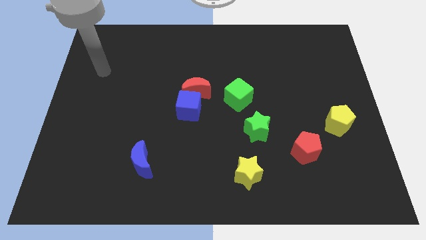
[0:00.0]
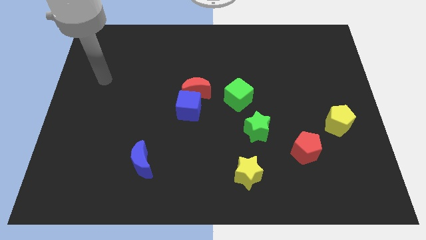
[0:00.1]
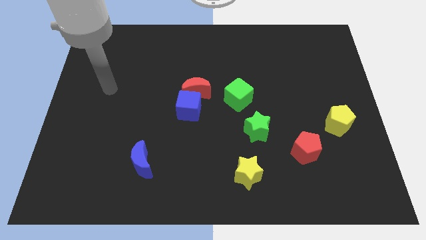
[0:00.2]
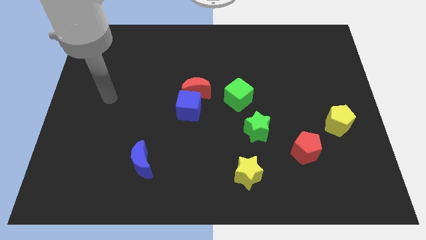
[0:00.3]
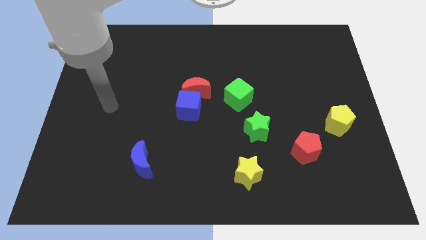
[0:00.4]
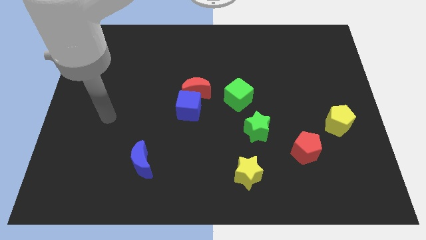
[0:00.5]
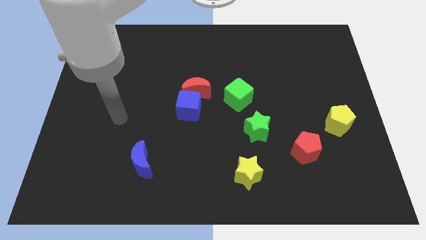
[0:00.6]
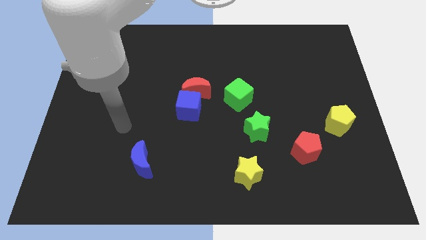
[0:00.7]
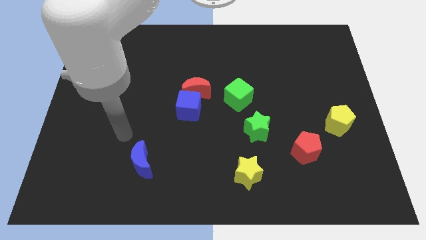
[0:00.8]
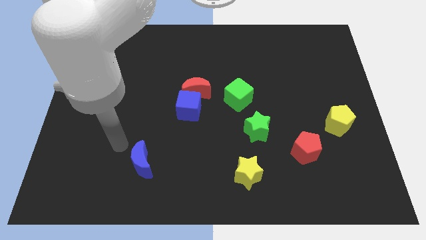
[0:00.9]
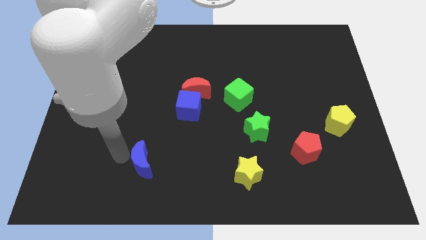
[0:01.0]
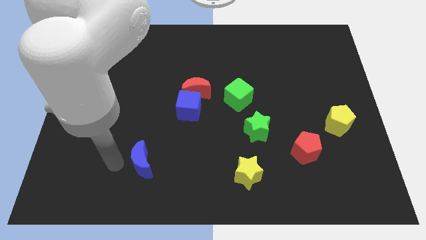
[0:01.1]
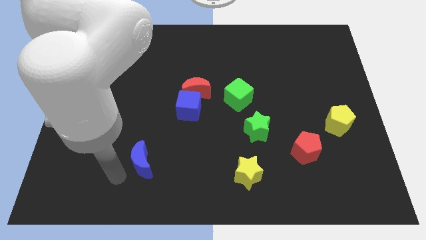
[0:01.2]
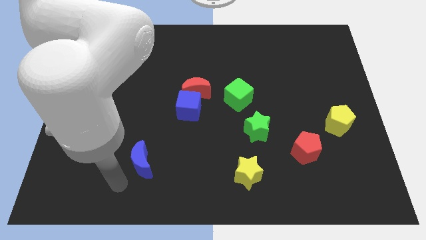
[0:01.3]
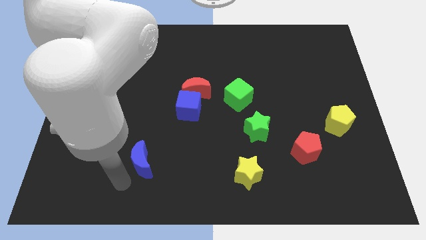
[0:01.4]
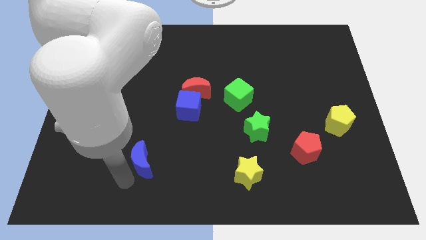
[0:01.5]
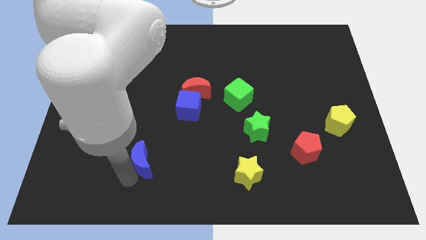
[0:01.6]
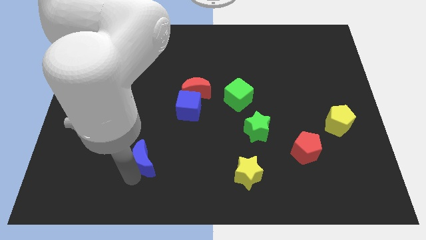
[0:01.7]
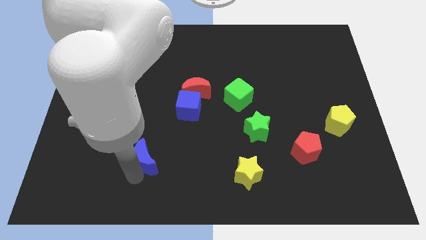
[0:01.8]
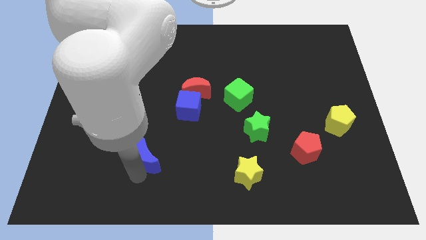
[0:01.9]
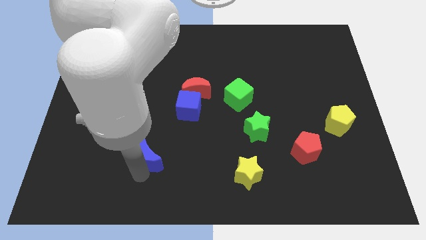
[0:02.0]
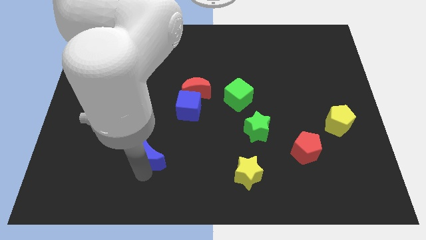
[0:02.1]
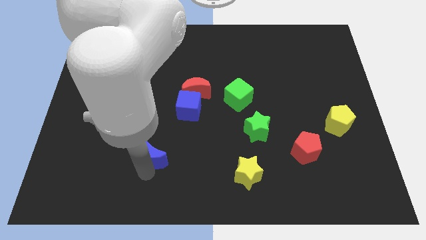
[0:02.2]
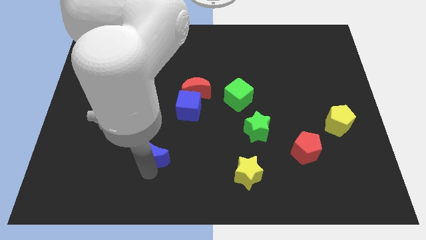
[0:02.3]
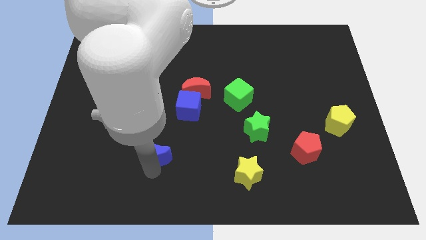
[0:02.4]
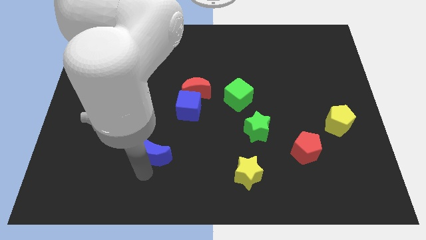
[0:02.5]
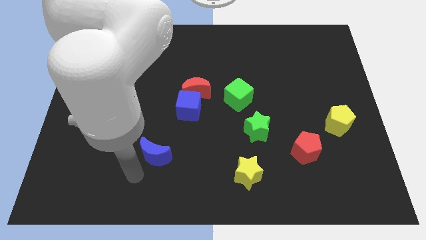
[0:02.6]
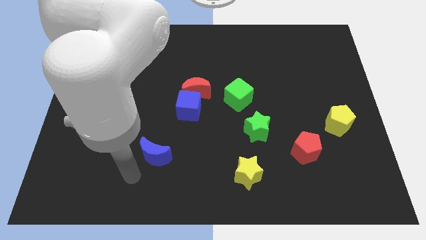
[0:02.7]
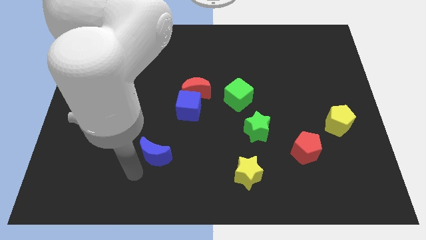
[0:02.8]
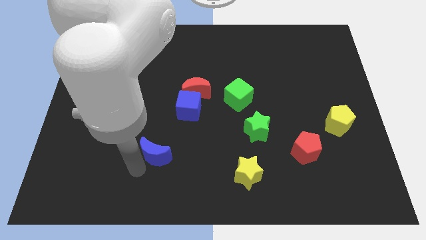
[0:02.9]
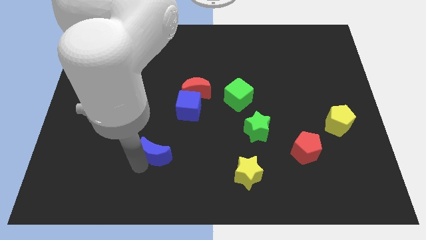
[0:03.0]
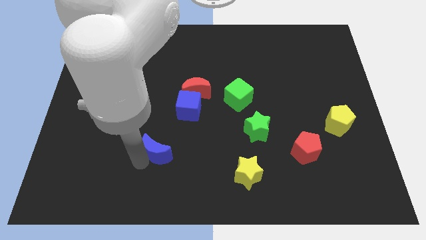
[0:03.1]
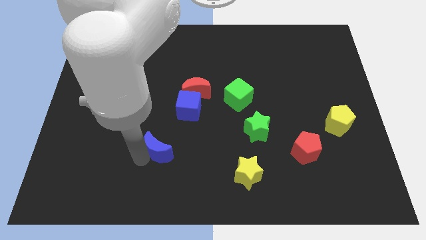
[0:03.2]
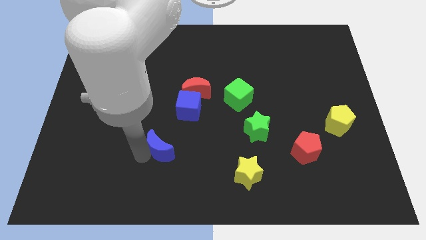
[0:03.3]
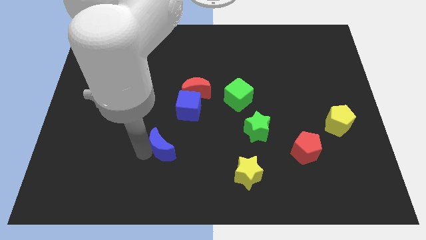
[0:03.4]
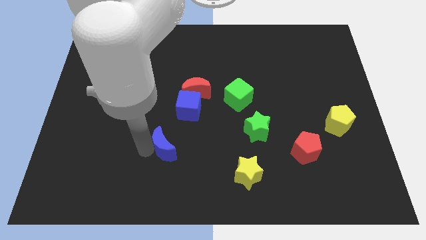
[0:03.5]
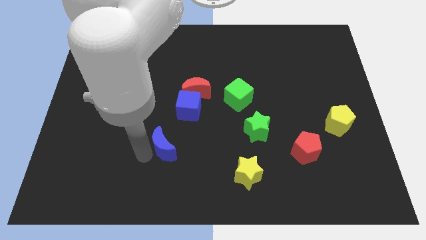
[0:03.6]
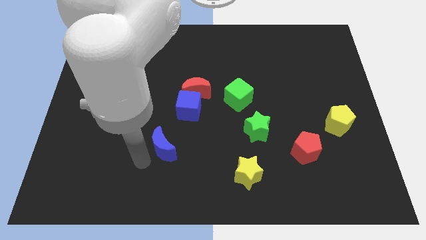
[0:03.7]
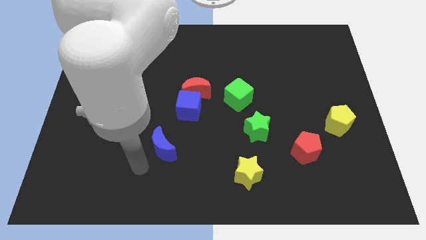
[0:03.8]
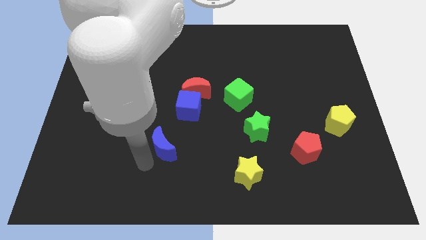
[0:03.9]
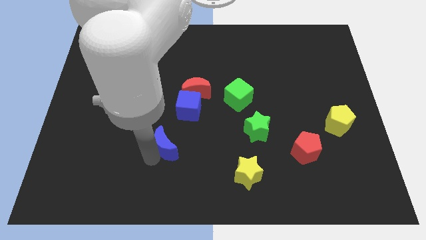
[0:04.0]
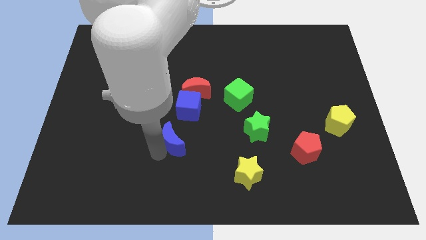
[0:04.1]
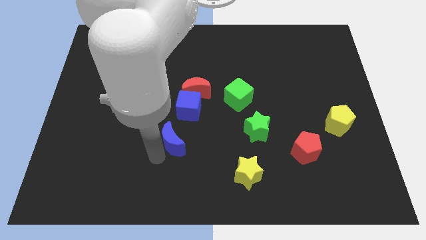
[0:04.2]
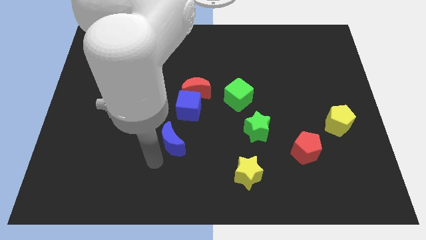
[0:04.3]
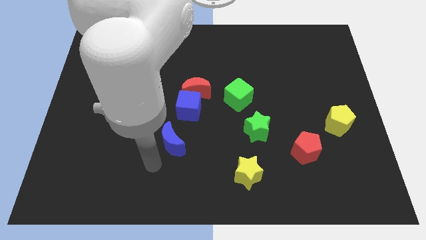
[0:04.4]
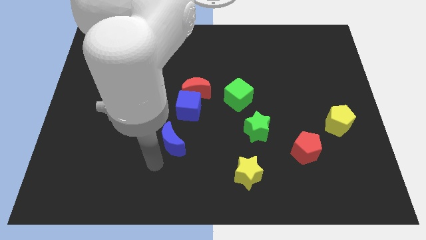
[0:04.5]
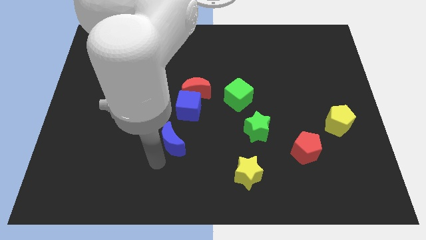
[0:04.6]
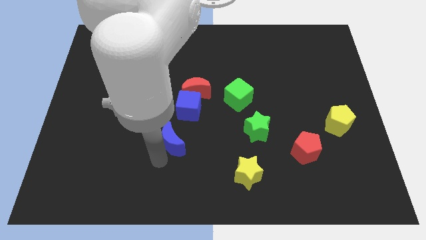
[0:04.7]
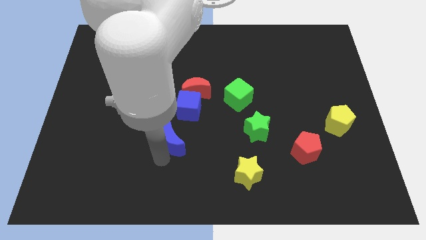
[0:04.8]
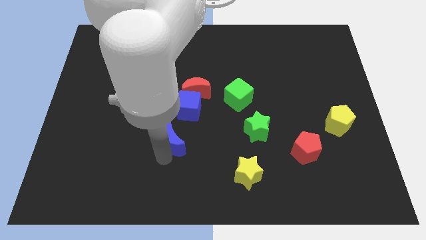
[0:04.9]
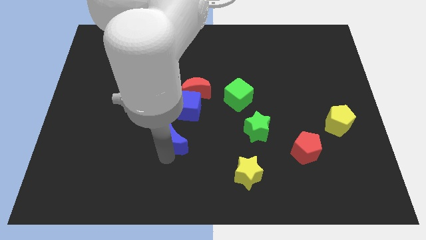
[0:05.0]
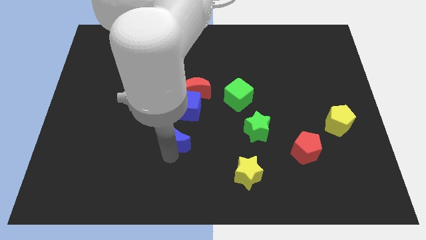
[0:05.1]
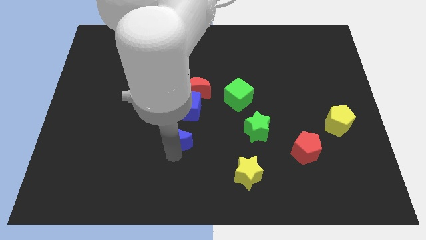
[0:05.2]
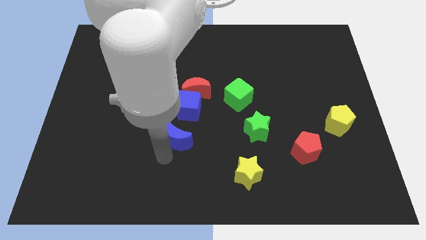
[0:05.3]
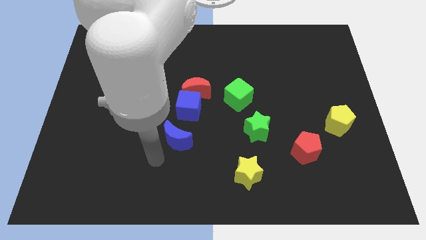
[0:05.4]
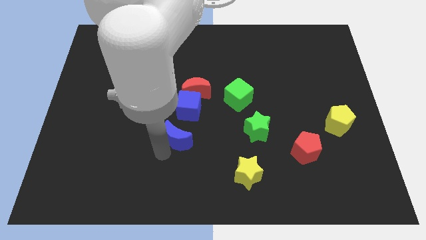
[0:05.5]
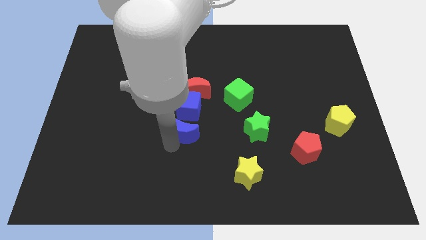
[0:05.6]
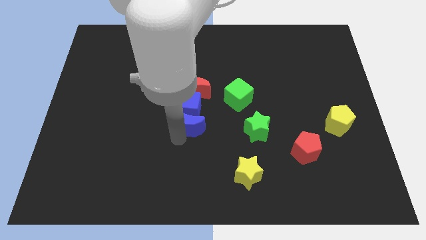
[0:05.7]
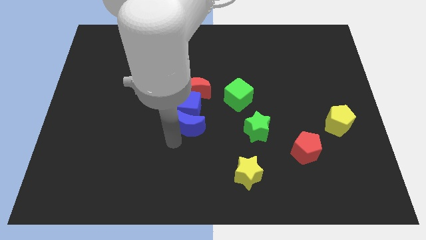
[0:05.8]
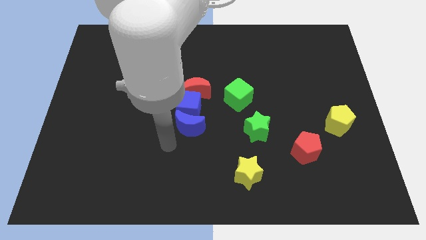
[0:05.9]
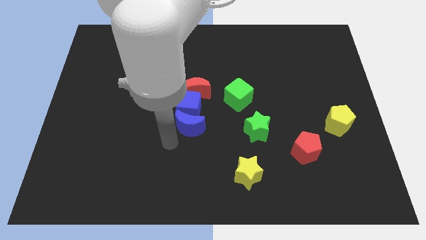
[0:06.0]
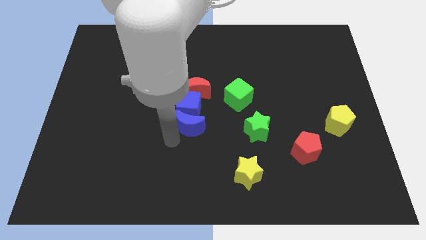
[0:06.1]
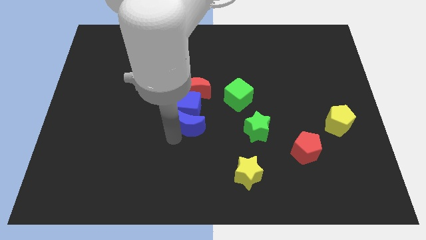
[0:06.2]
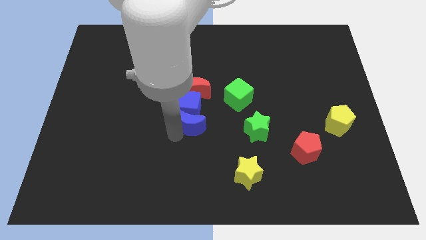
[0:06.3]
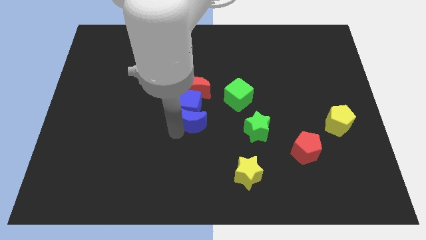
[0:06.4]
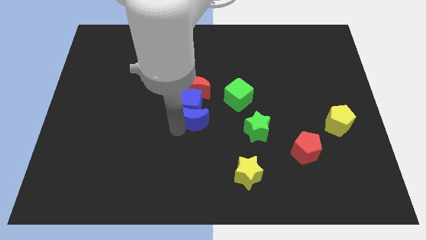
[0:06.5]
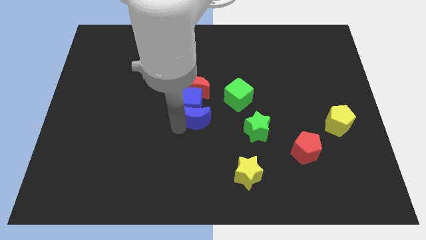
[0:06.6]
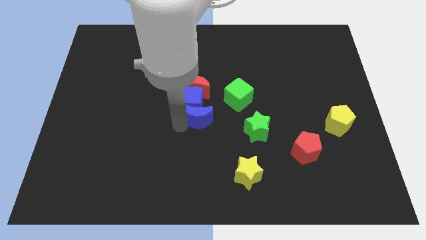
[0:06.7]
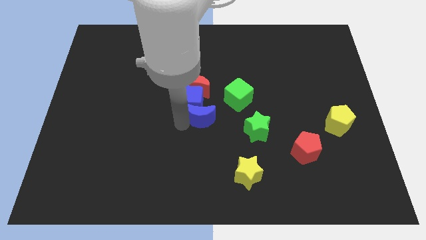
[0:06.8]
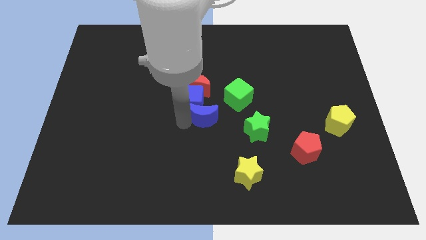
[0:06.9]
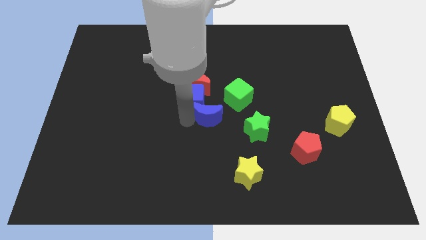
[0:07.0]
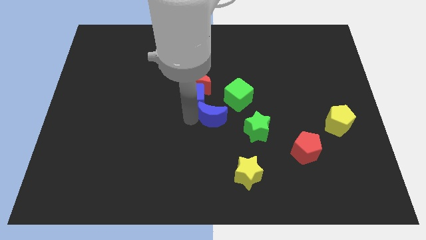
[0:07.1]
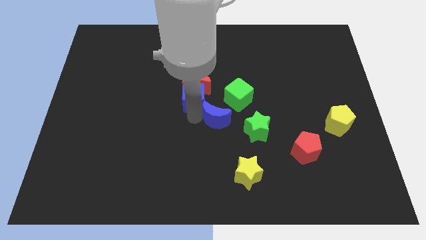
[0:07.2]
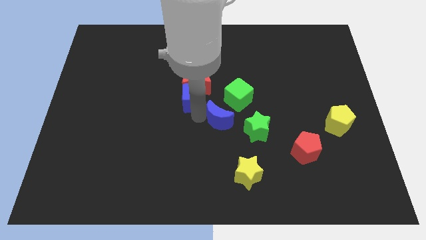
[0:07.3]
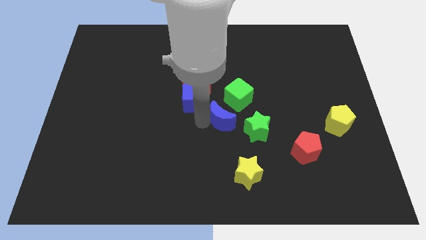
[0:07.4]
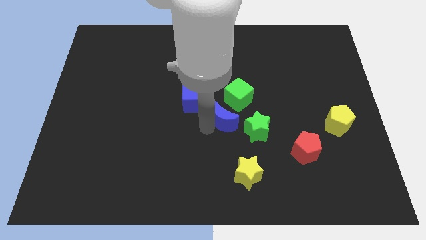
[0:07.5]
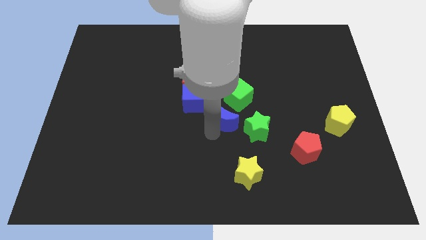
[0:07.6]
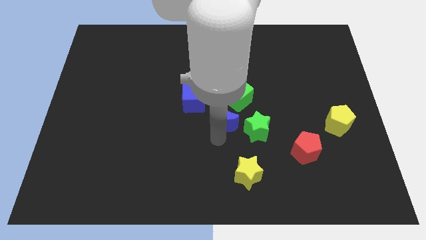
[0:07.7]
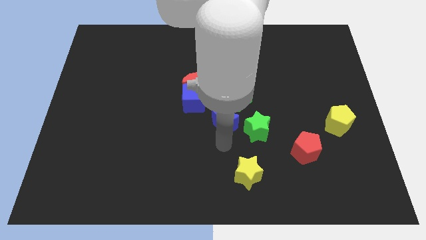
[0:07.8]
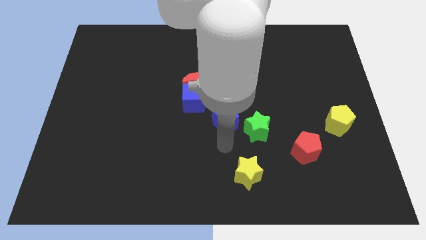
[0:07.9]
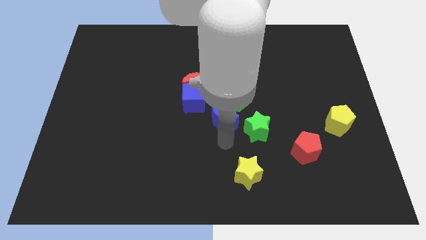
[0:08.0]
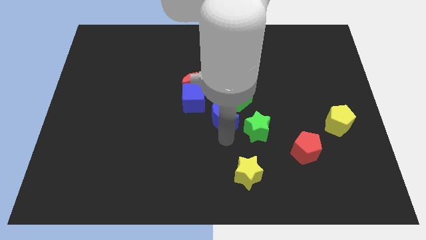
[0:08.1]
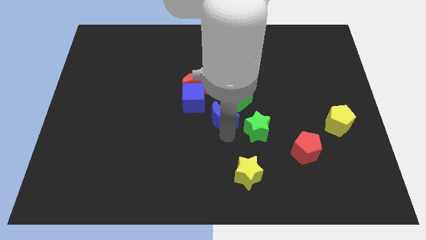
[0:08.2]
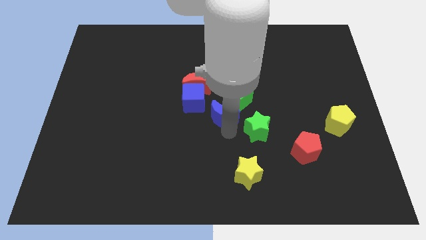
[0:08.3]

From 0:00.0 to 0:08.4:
slide the blue moon up and then to the right
